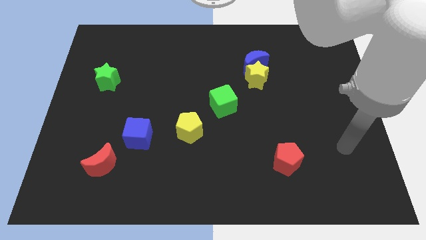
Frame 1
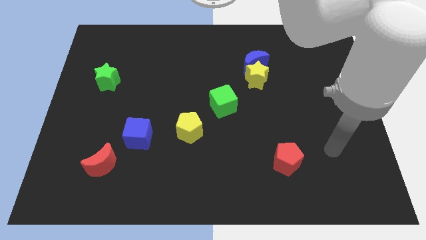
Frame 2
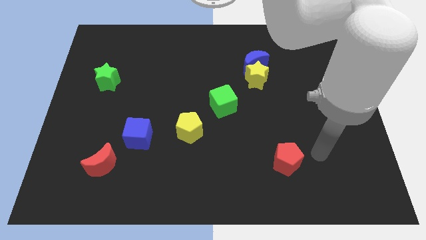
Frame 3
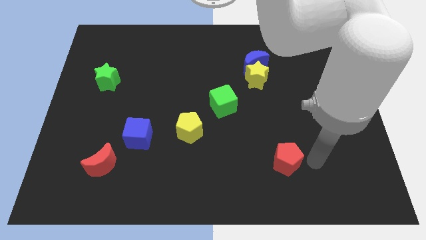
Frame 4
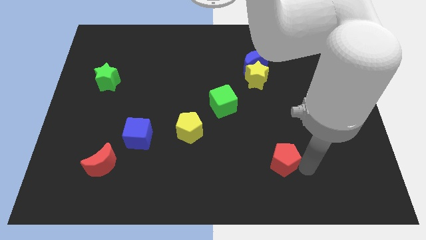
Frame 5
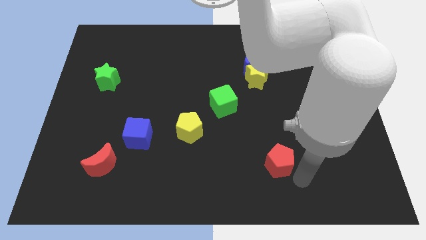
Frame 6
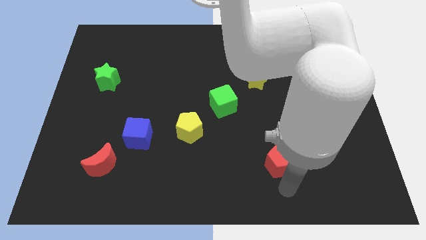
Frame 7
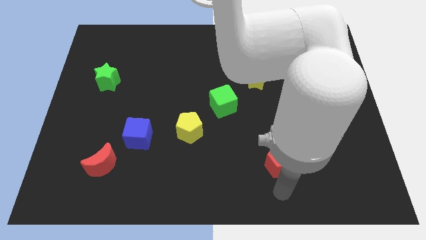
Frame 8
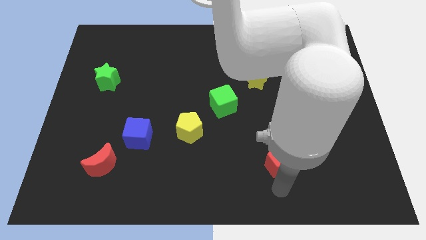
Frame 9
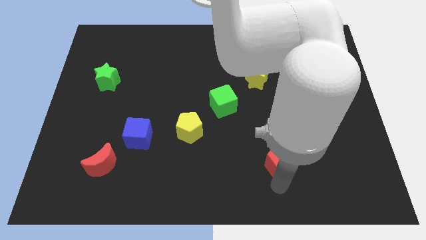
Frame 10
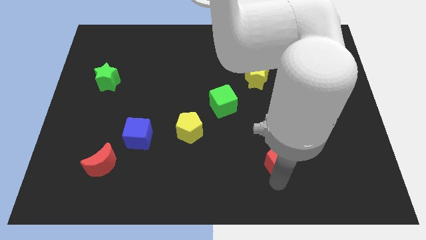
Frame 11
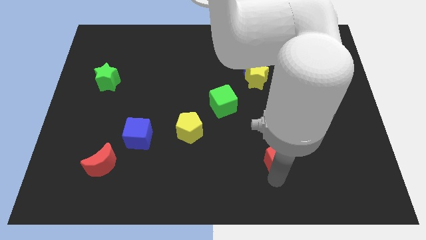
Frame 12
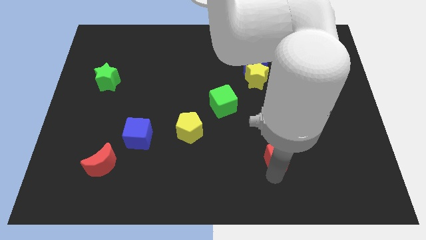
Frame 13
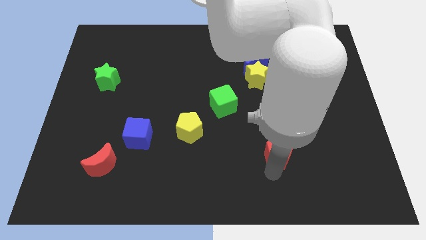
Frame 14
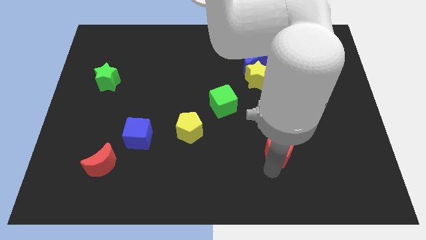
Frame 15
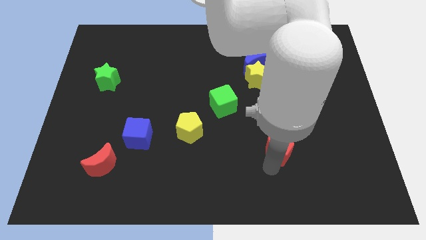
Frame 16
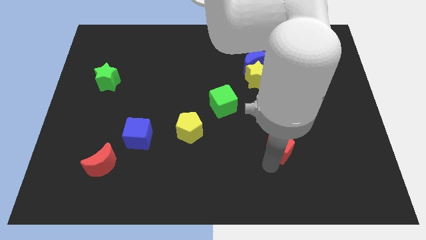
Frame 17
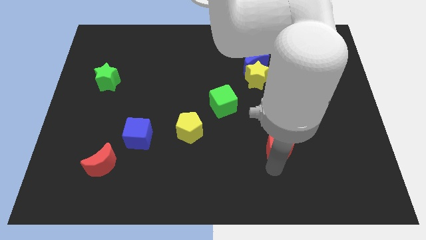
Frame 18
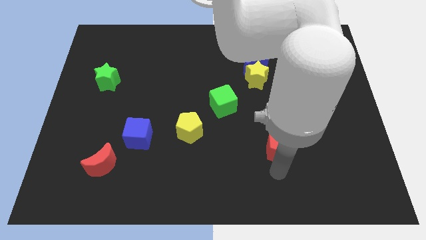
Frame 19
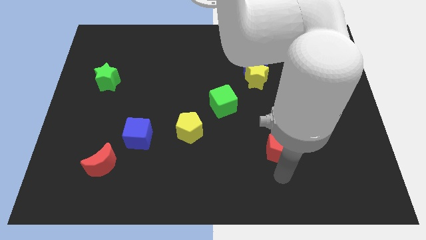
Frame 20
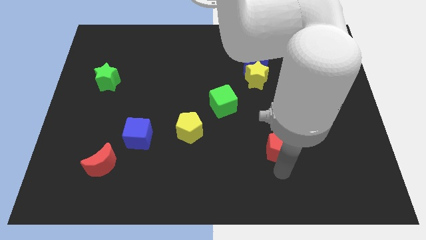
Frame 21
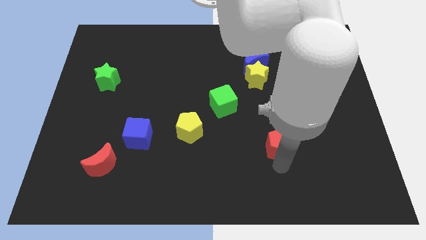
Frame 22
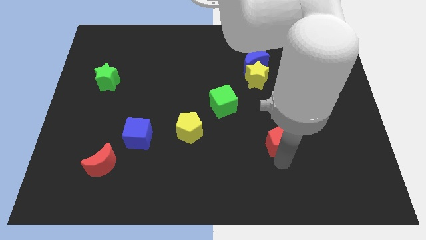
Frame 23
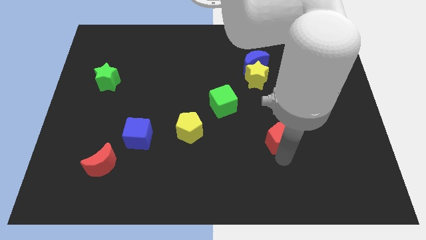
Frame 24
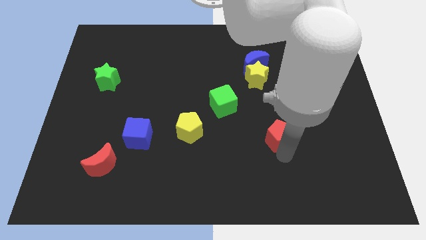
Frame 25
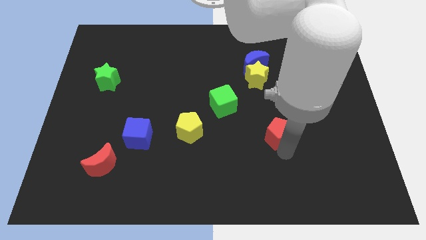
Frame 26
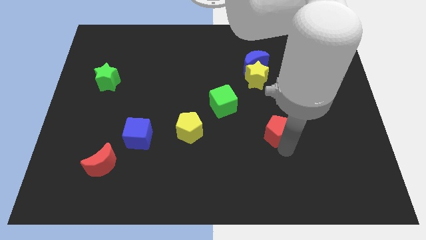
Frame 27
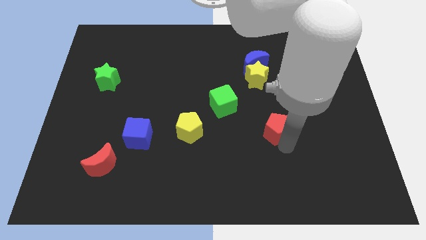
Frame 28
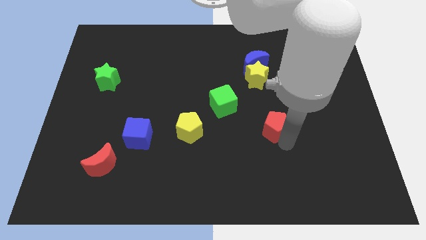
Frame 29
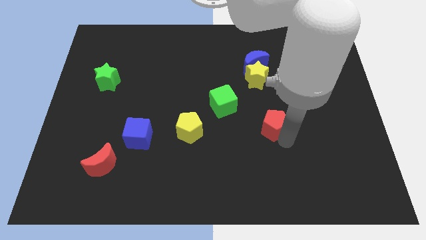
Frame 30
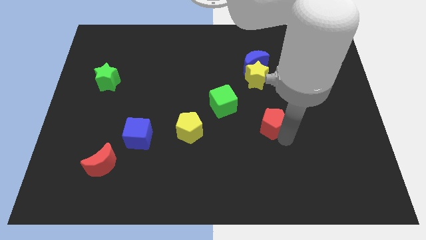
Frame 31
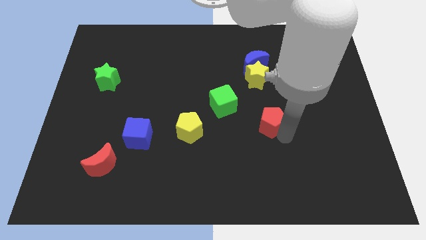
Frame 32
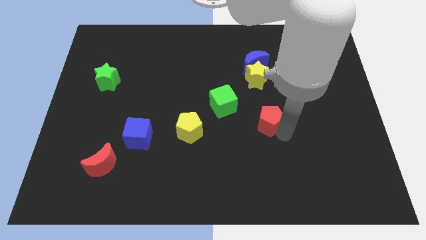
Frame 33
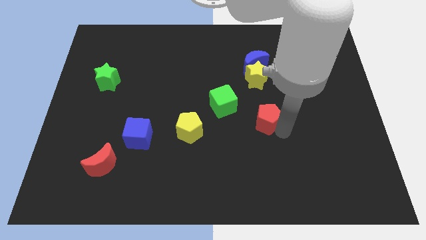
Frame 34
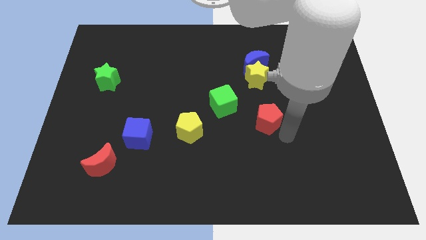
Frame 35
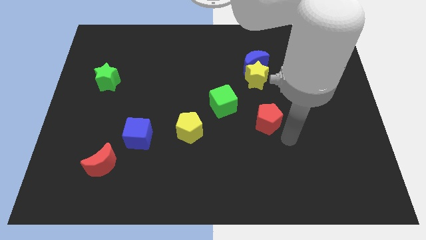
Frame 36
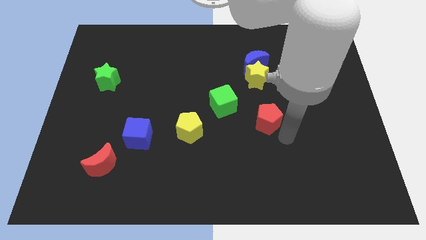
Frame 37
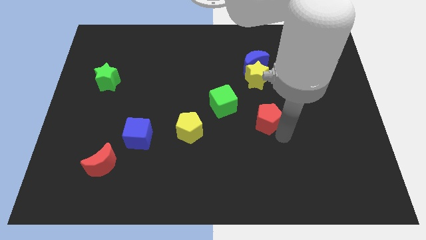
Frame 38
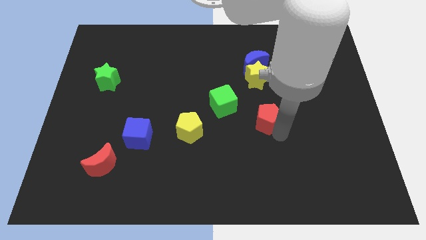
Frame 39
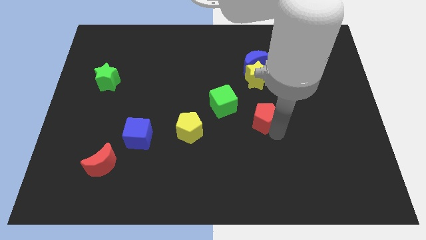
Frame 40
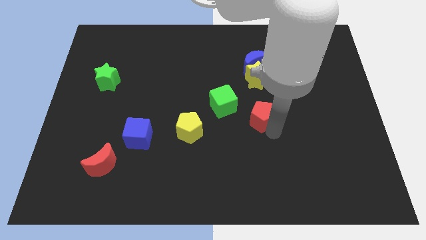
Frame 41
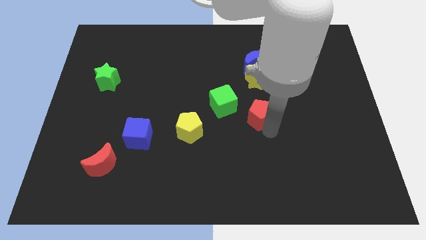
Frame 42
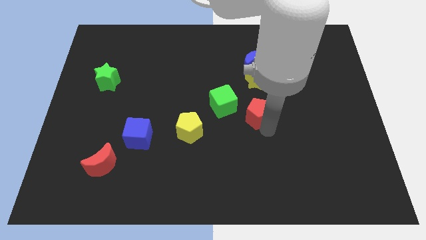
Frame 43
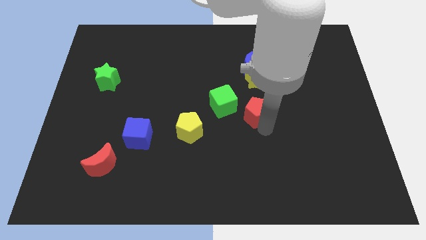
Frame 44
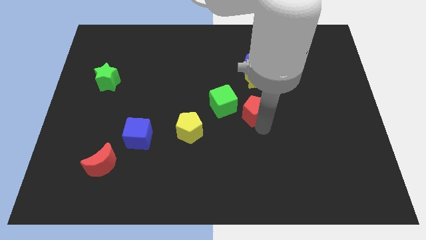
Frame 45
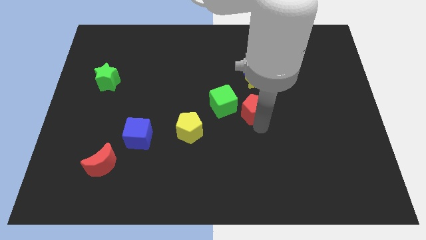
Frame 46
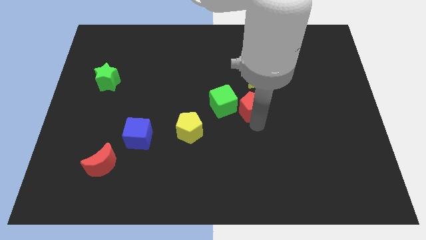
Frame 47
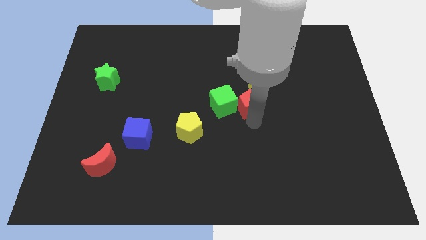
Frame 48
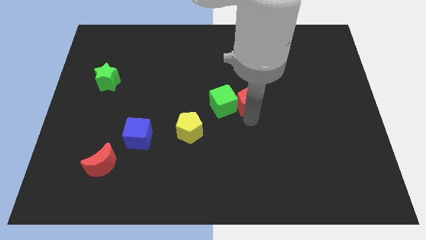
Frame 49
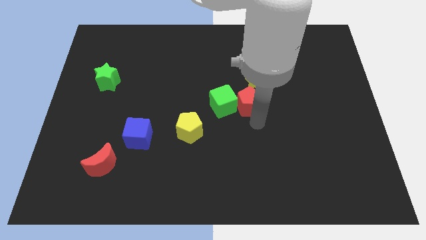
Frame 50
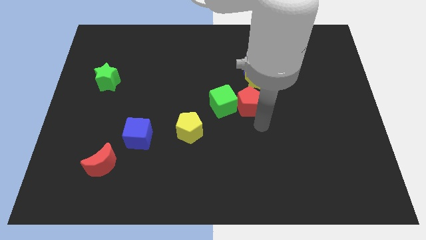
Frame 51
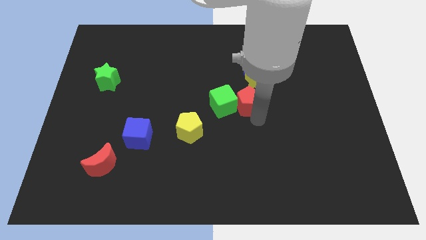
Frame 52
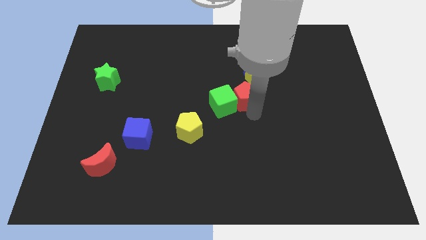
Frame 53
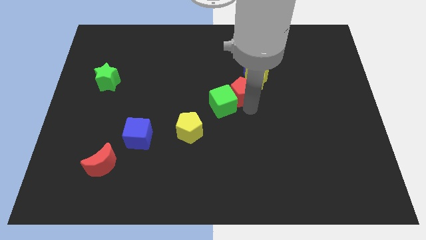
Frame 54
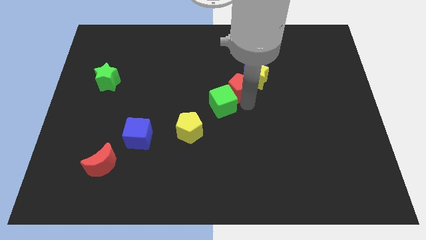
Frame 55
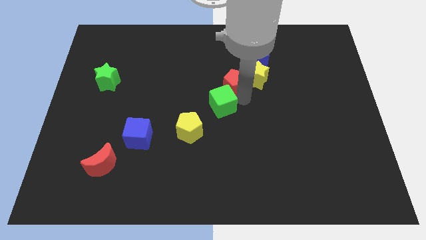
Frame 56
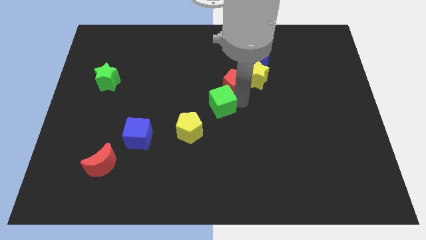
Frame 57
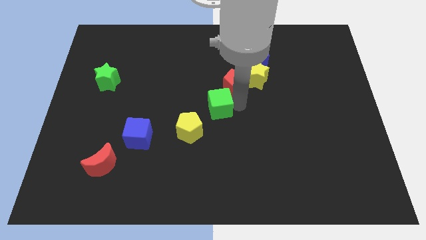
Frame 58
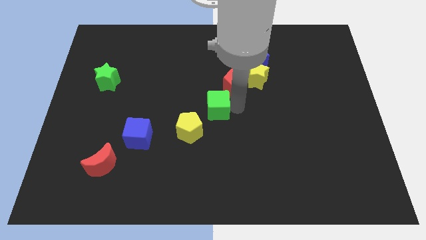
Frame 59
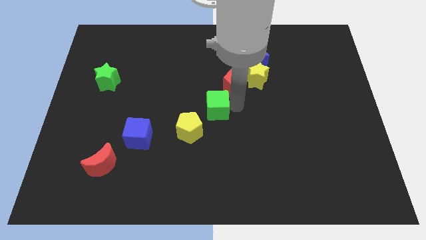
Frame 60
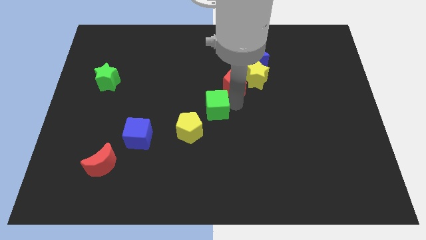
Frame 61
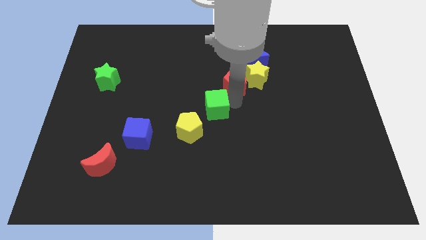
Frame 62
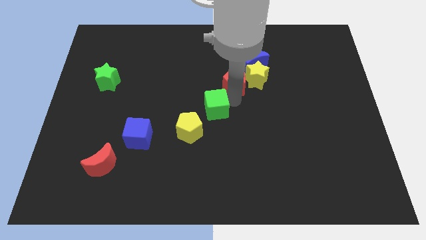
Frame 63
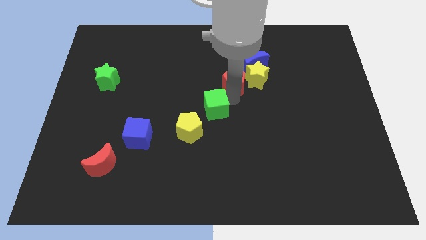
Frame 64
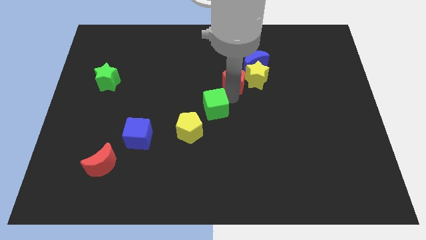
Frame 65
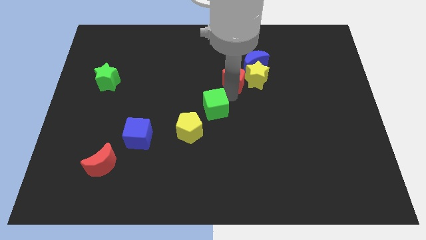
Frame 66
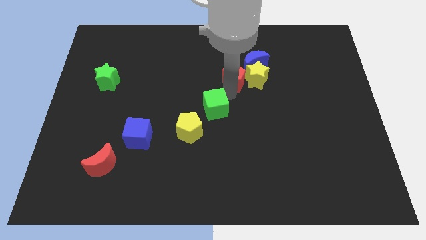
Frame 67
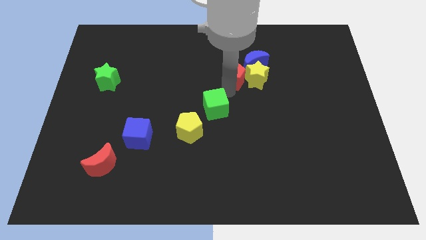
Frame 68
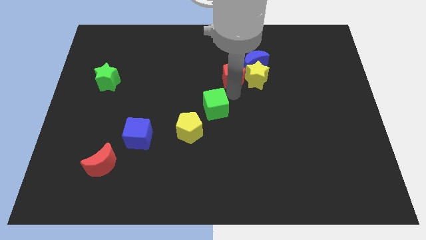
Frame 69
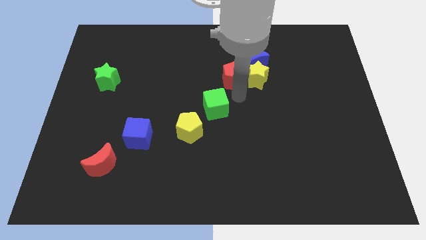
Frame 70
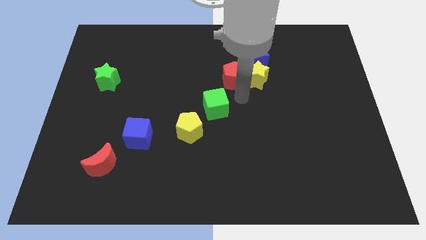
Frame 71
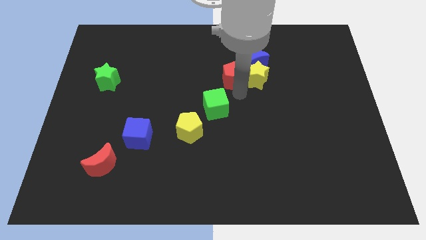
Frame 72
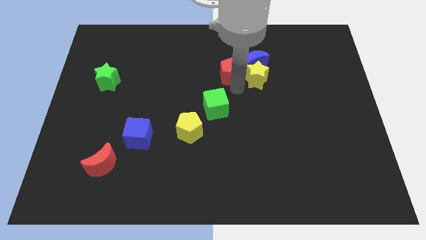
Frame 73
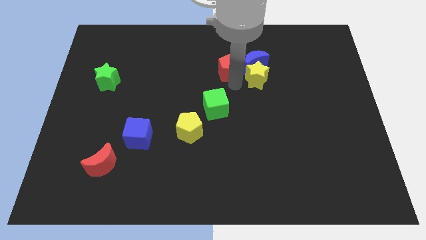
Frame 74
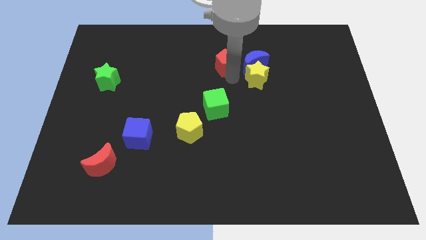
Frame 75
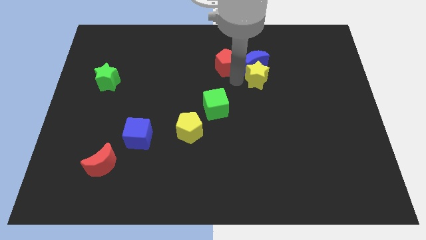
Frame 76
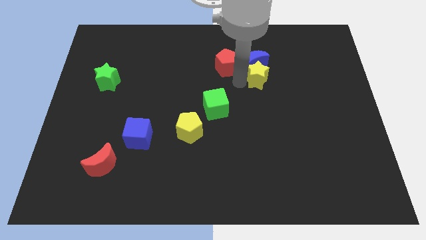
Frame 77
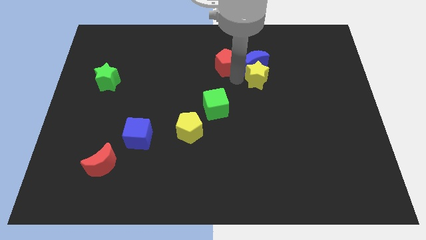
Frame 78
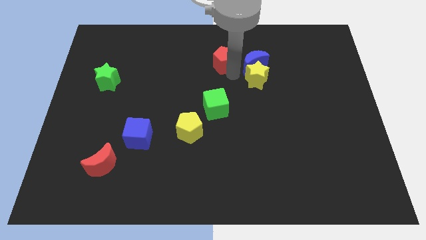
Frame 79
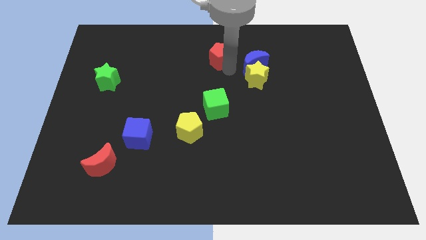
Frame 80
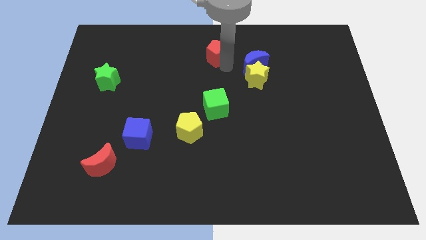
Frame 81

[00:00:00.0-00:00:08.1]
move the red pentagon to the top side
